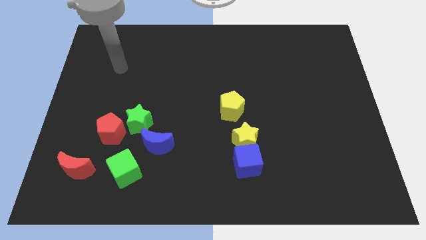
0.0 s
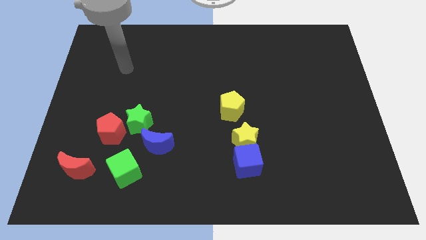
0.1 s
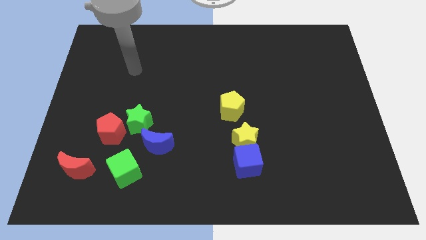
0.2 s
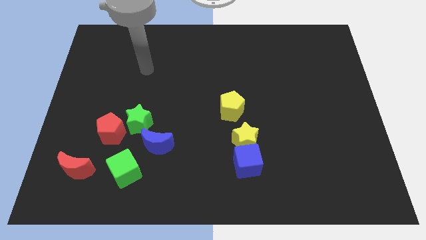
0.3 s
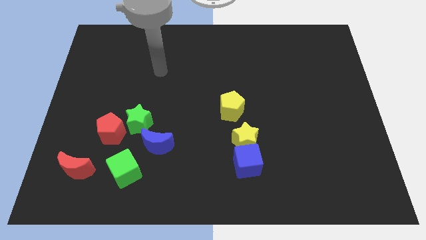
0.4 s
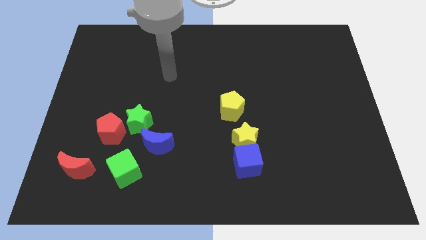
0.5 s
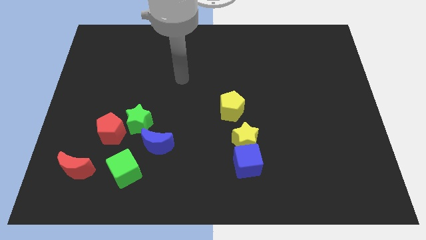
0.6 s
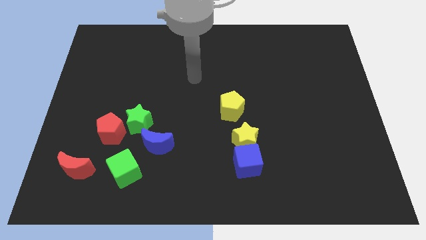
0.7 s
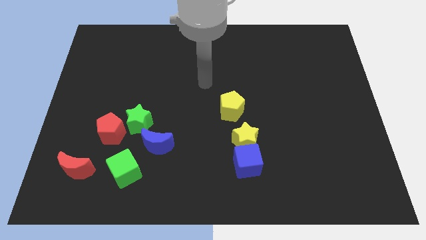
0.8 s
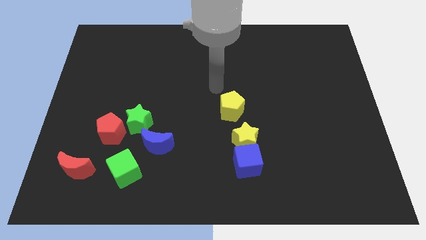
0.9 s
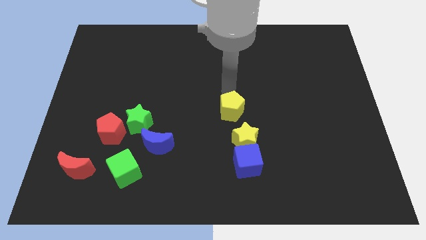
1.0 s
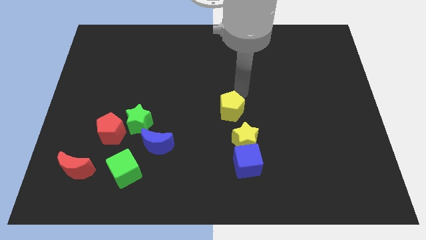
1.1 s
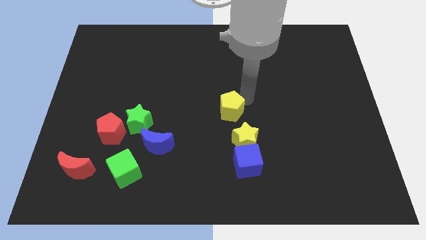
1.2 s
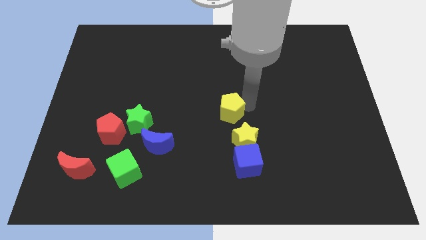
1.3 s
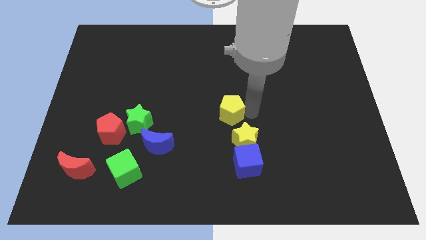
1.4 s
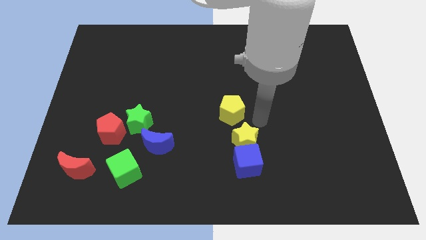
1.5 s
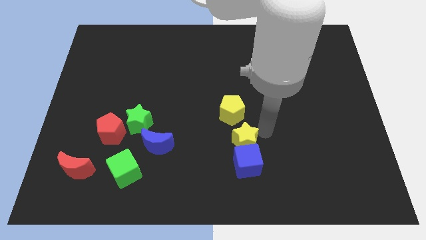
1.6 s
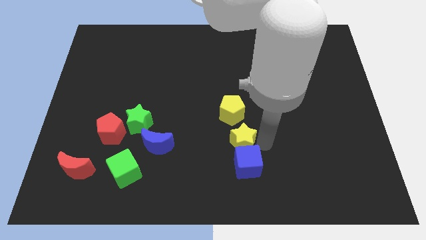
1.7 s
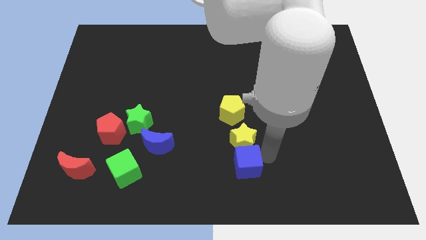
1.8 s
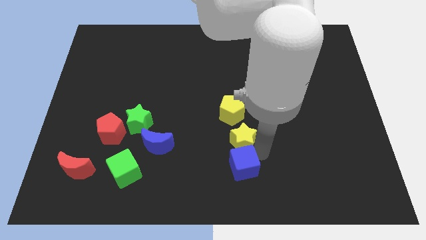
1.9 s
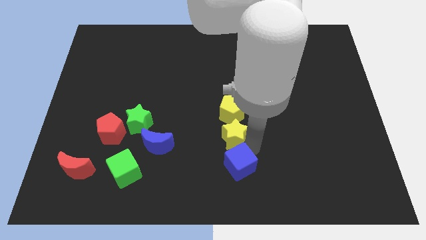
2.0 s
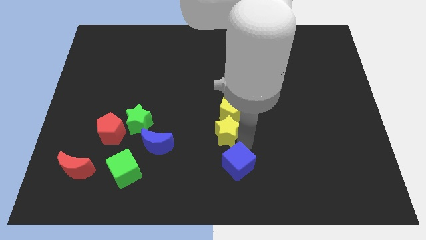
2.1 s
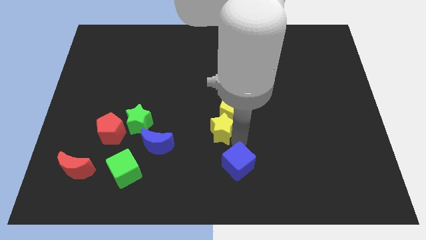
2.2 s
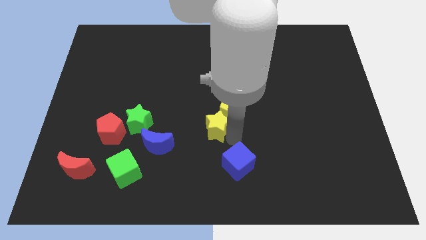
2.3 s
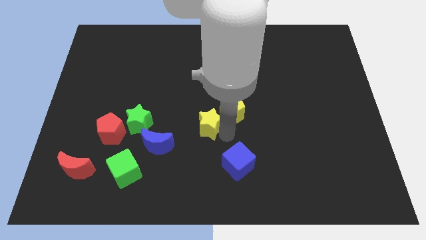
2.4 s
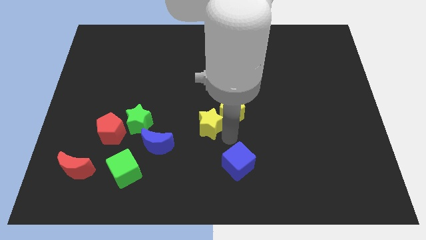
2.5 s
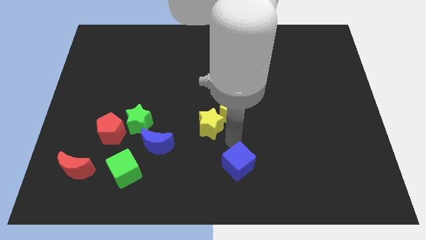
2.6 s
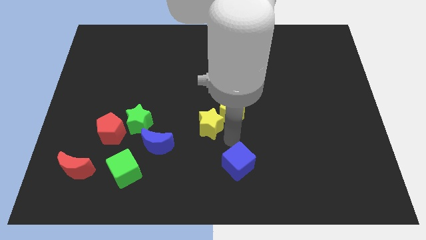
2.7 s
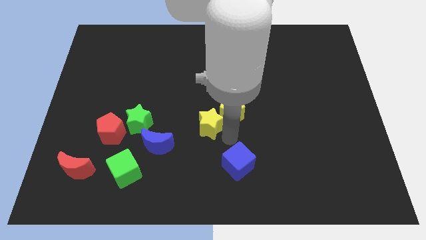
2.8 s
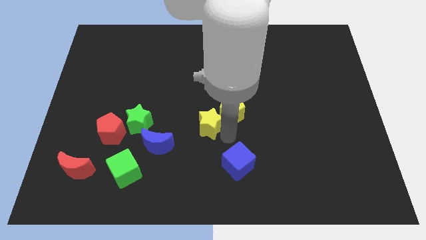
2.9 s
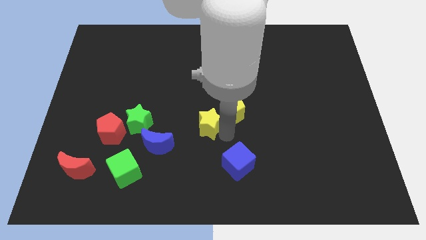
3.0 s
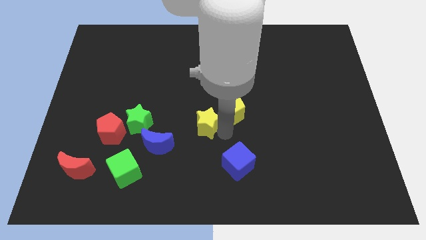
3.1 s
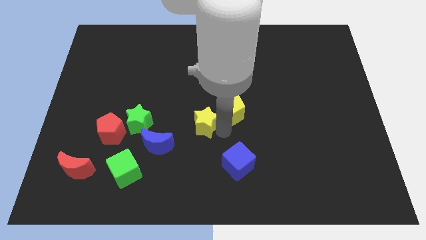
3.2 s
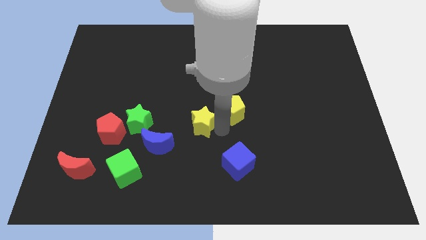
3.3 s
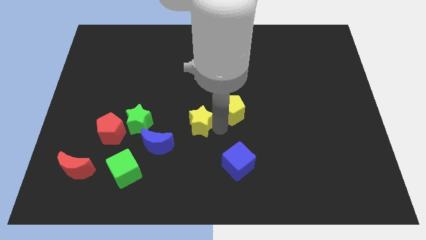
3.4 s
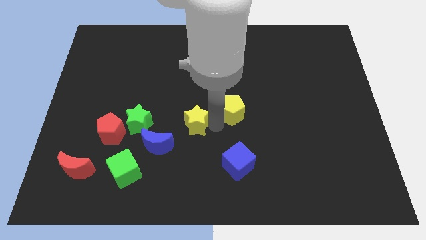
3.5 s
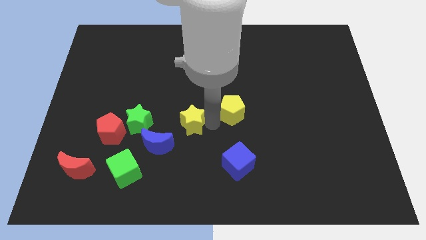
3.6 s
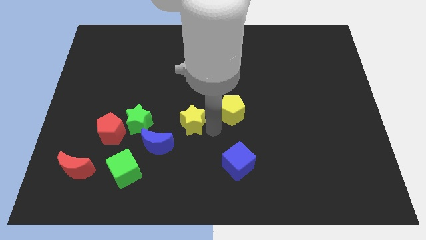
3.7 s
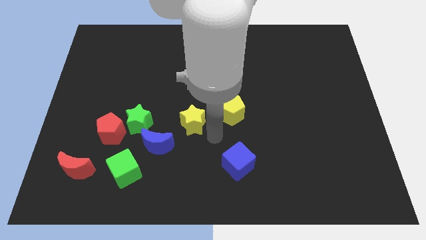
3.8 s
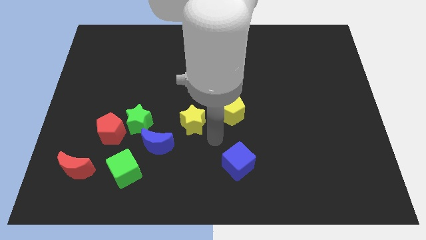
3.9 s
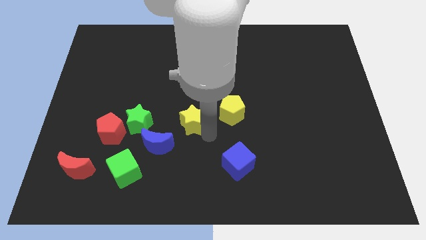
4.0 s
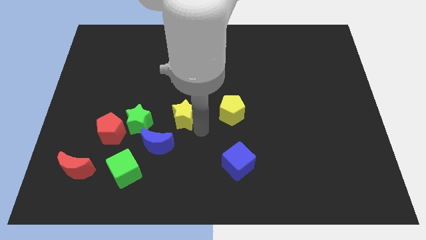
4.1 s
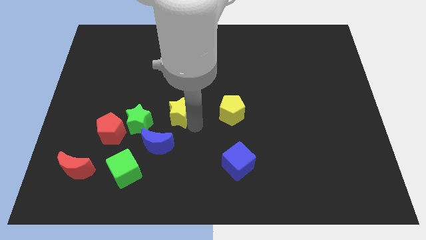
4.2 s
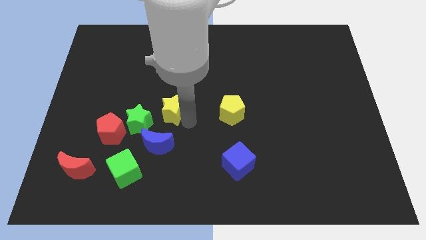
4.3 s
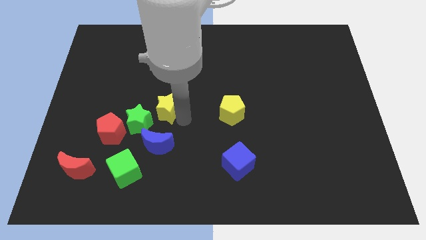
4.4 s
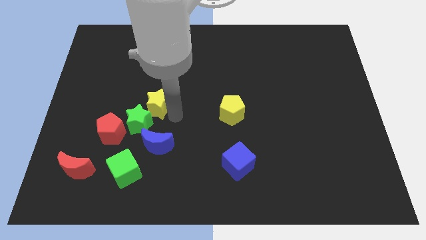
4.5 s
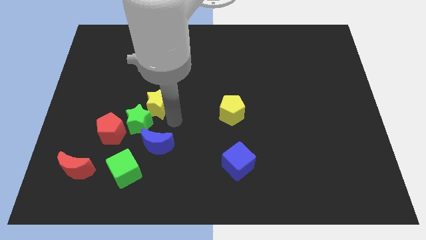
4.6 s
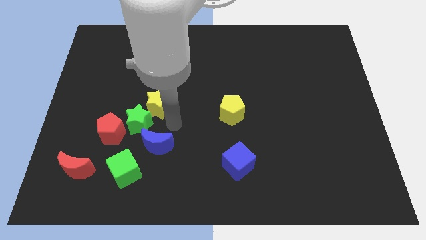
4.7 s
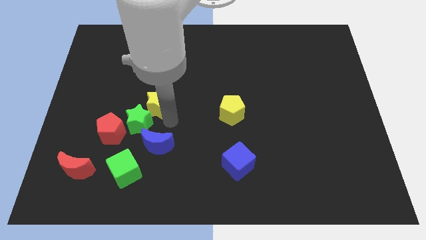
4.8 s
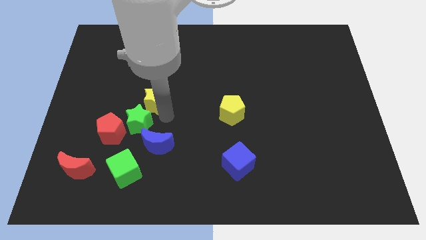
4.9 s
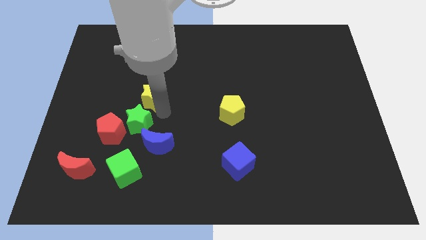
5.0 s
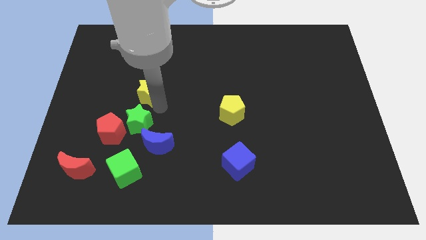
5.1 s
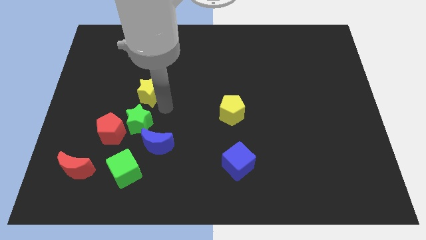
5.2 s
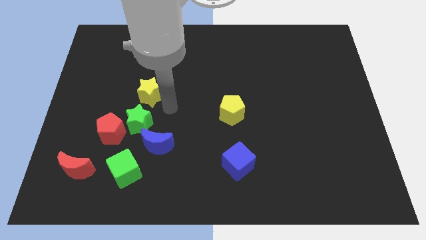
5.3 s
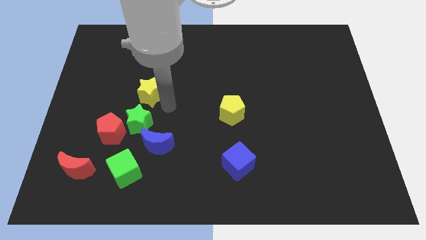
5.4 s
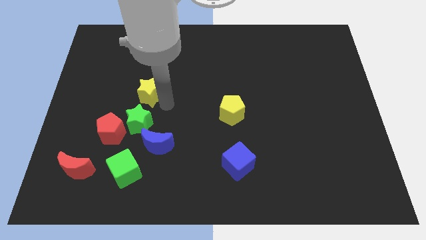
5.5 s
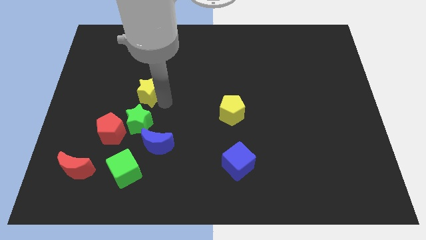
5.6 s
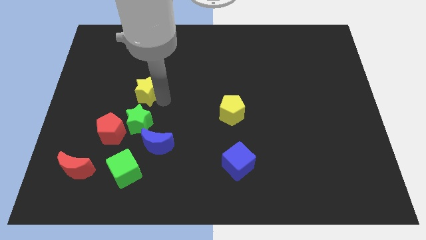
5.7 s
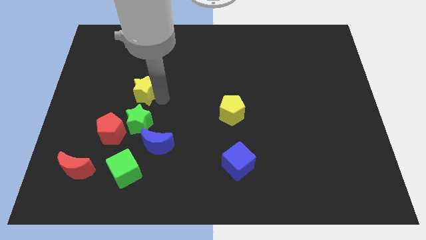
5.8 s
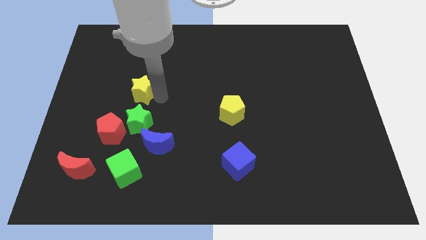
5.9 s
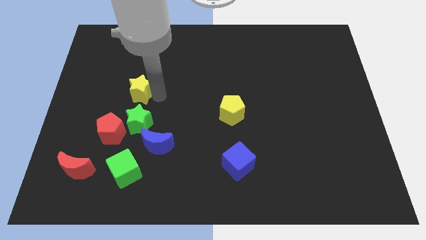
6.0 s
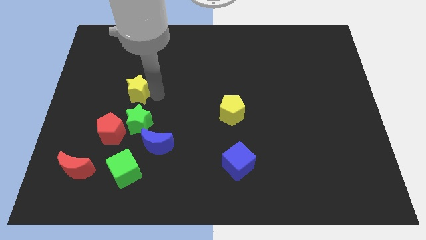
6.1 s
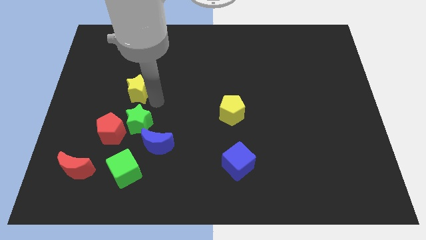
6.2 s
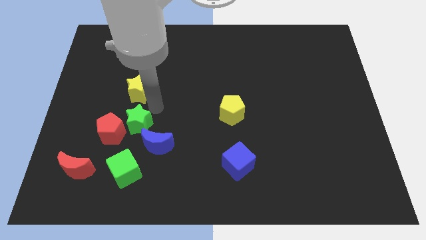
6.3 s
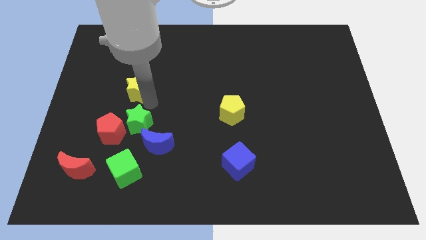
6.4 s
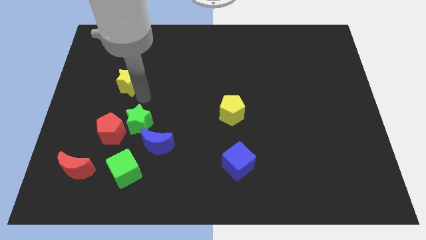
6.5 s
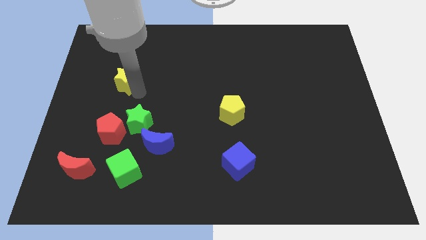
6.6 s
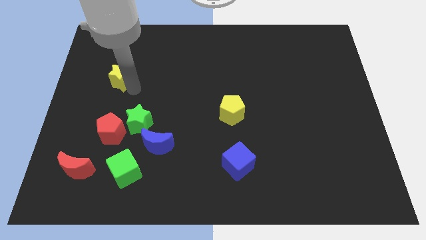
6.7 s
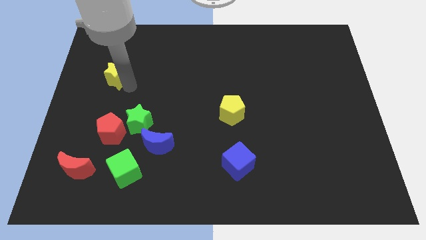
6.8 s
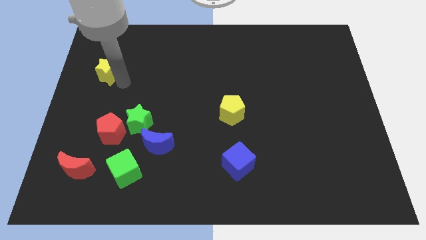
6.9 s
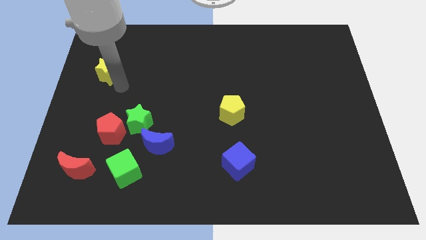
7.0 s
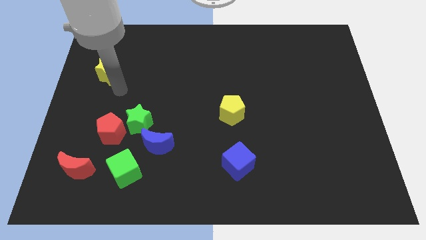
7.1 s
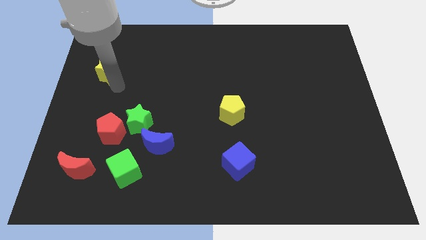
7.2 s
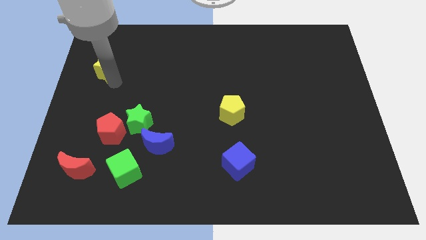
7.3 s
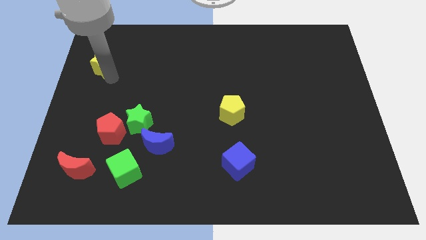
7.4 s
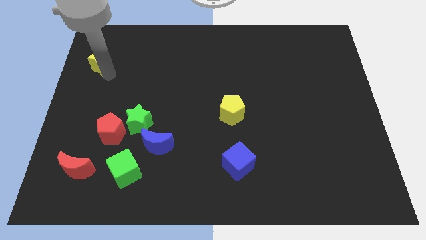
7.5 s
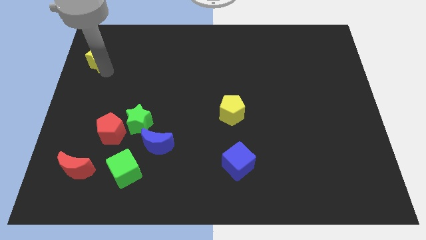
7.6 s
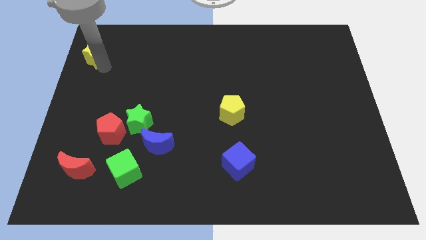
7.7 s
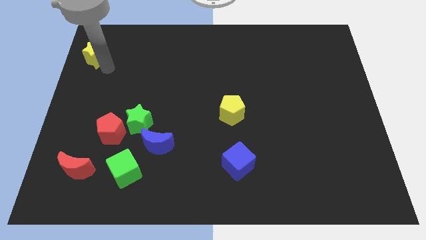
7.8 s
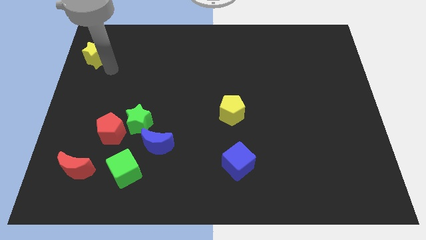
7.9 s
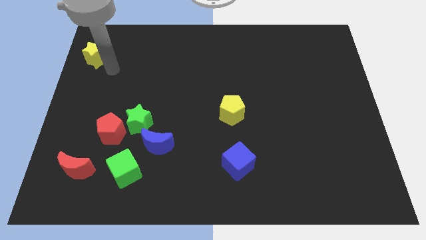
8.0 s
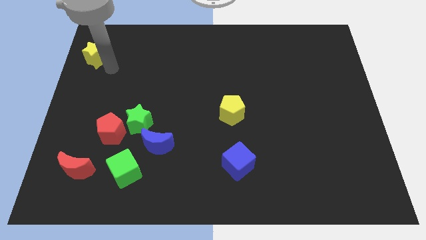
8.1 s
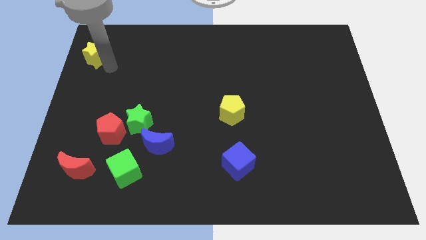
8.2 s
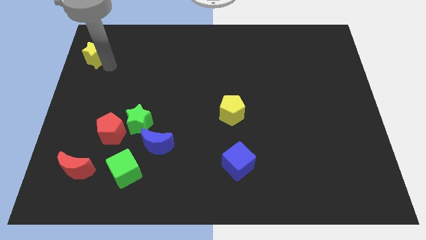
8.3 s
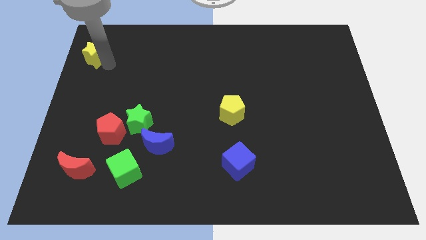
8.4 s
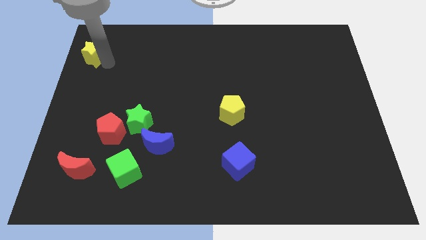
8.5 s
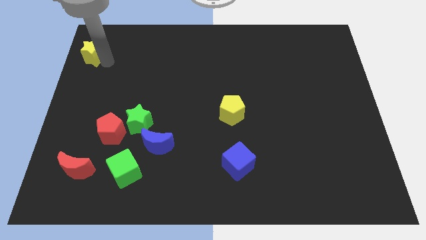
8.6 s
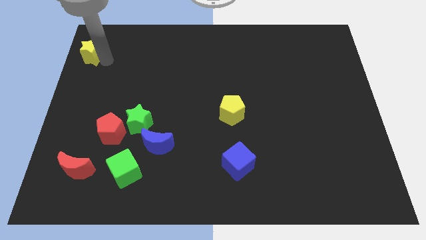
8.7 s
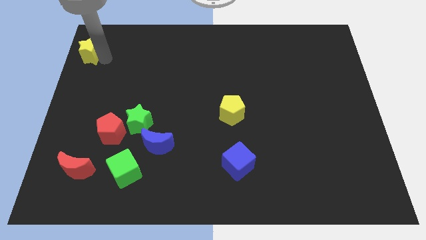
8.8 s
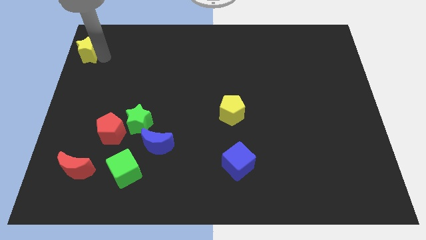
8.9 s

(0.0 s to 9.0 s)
slide the yellow star to the top left of the board
